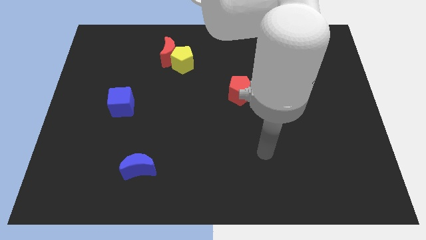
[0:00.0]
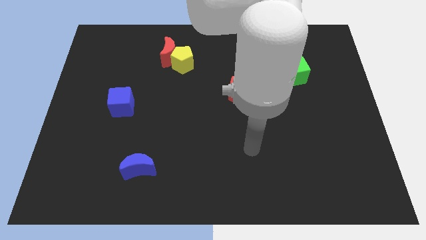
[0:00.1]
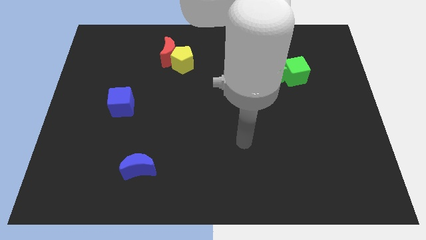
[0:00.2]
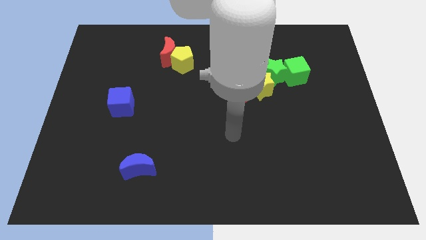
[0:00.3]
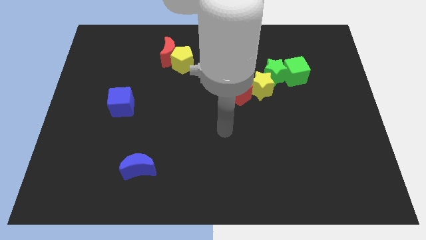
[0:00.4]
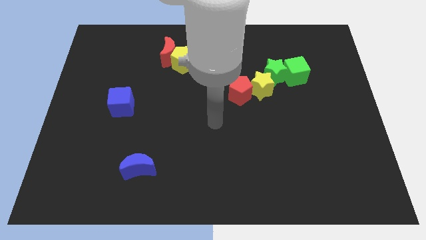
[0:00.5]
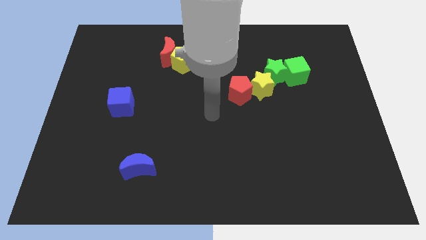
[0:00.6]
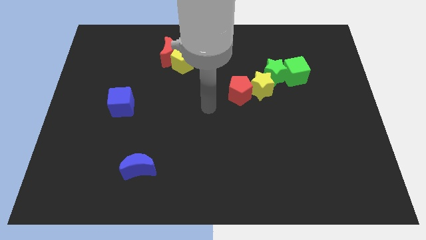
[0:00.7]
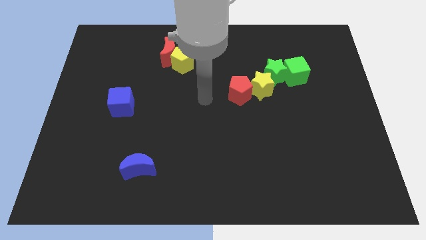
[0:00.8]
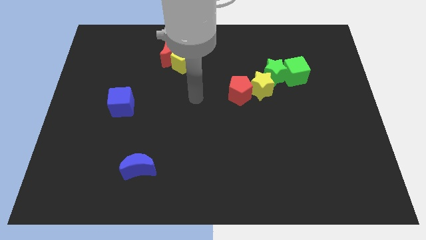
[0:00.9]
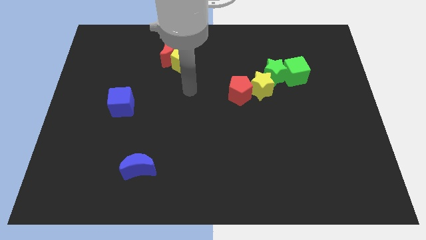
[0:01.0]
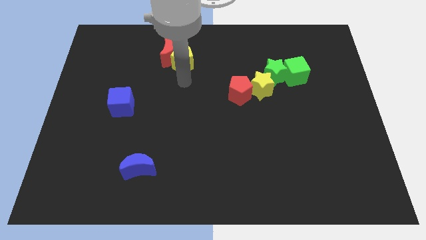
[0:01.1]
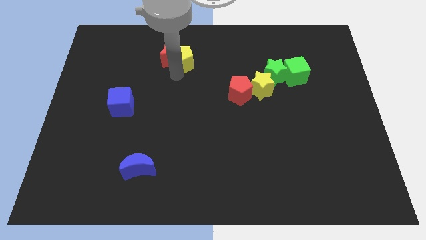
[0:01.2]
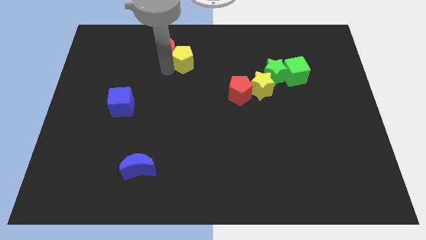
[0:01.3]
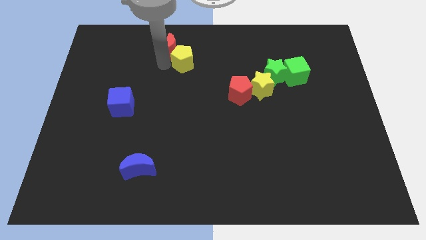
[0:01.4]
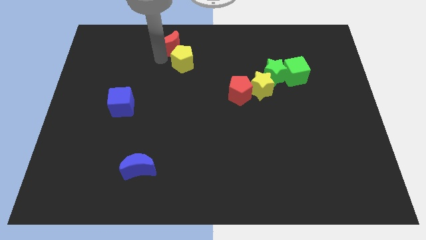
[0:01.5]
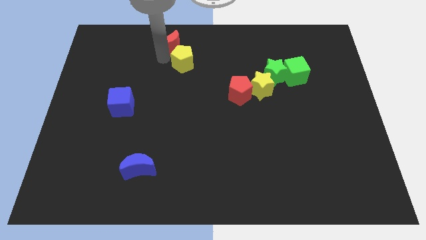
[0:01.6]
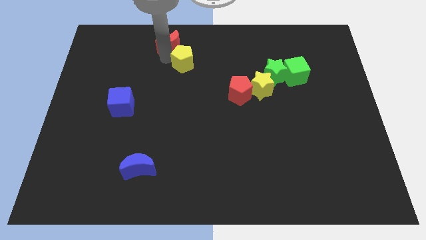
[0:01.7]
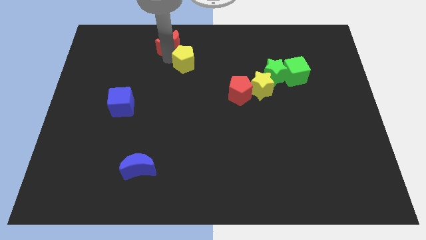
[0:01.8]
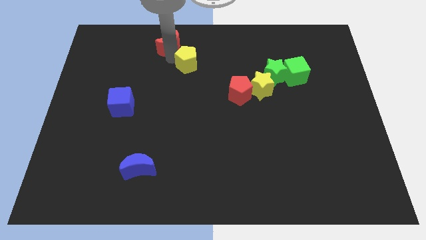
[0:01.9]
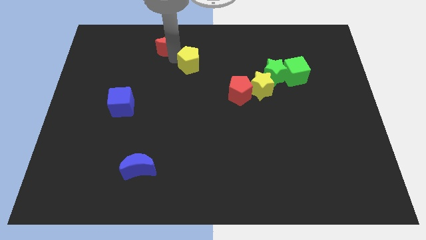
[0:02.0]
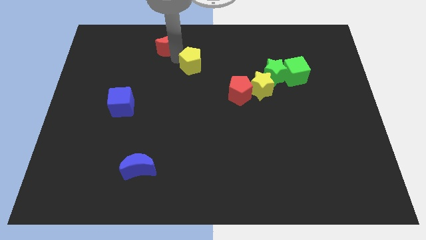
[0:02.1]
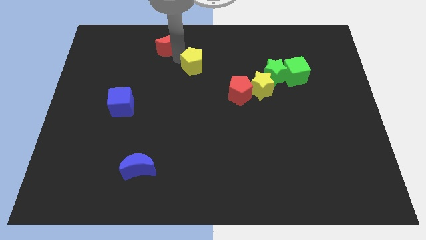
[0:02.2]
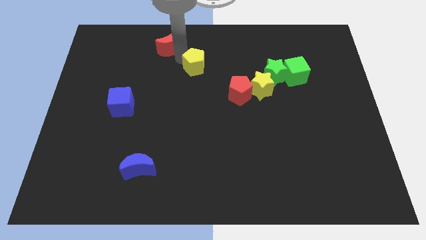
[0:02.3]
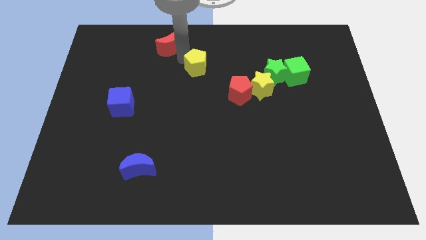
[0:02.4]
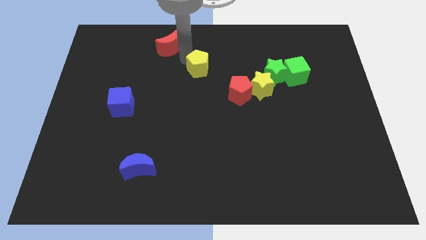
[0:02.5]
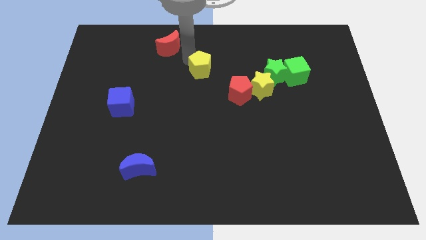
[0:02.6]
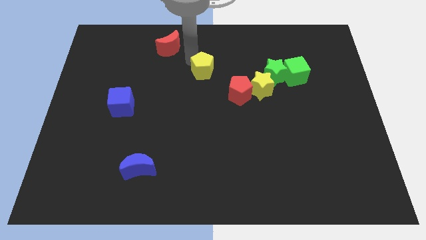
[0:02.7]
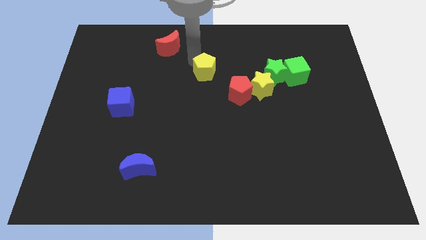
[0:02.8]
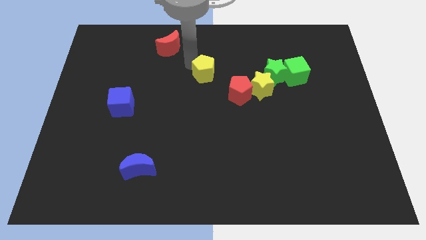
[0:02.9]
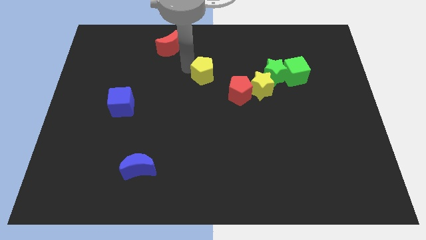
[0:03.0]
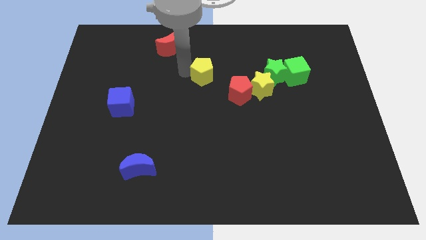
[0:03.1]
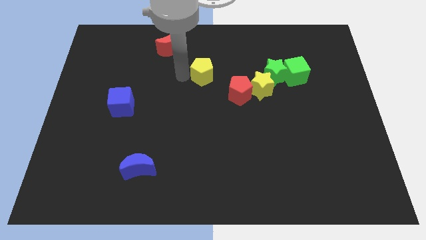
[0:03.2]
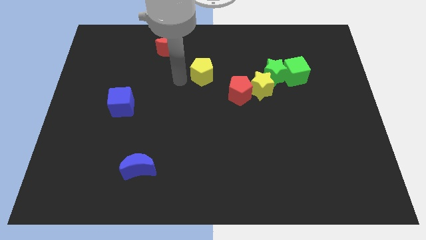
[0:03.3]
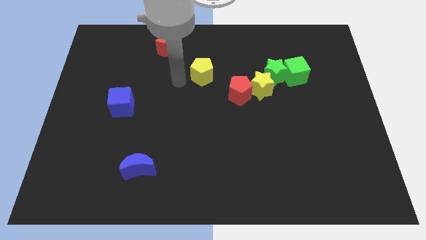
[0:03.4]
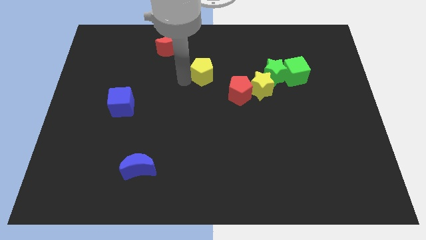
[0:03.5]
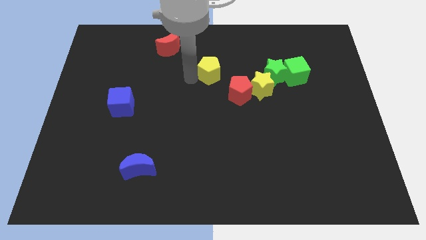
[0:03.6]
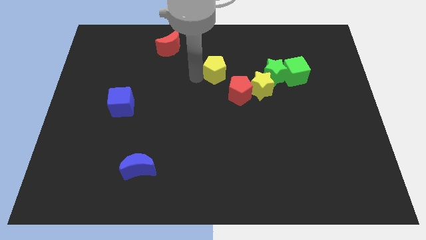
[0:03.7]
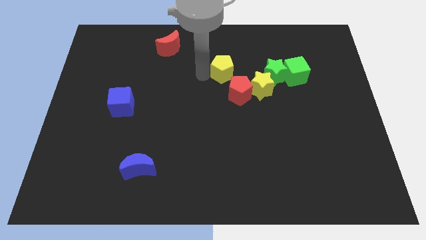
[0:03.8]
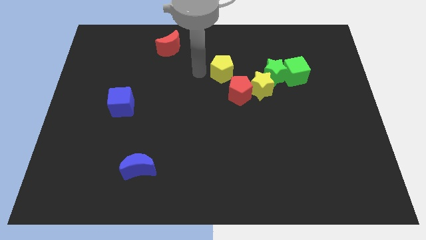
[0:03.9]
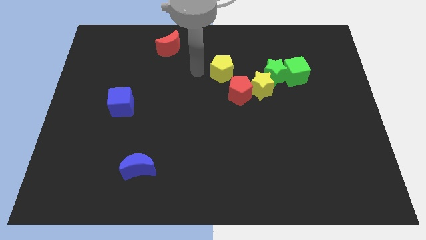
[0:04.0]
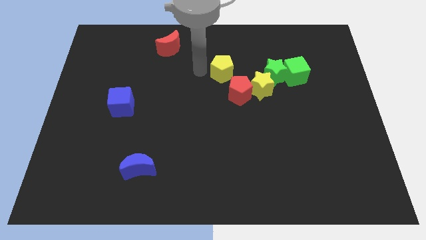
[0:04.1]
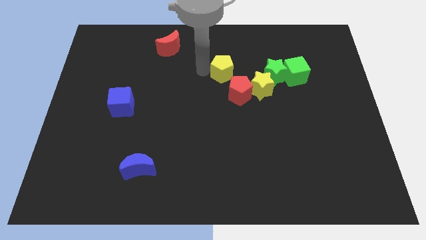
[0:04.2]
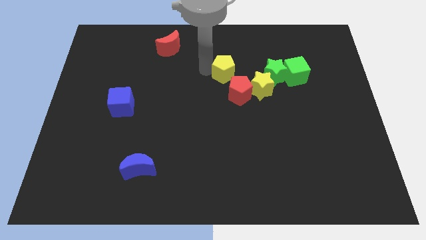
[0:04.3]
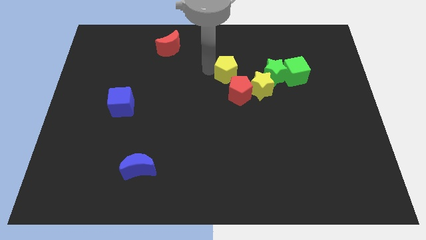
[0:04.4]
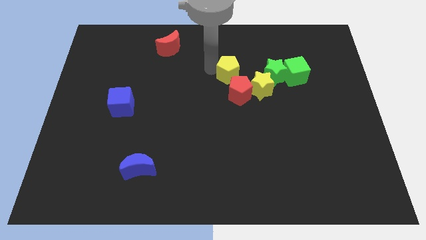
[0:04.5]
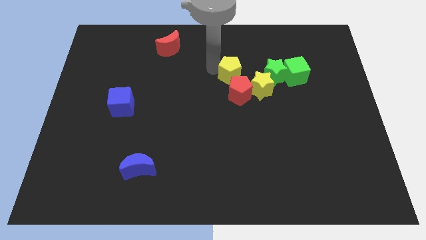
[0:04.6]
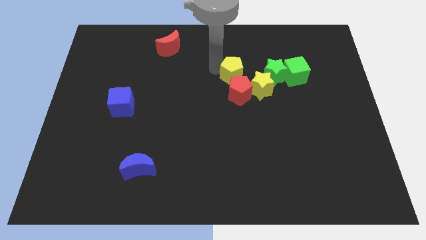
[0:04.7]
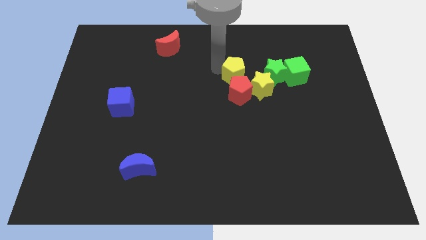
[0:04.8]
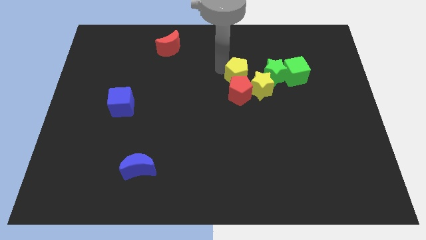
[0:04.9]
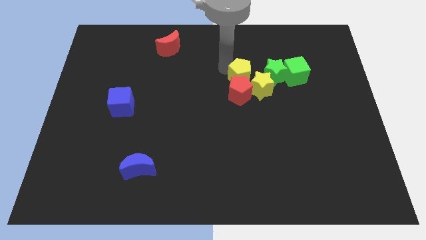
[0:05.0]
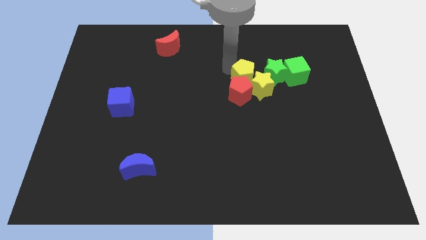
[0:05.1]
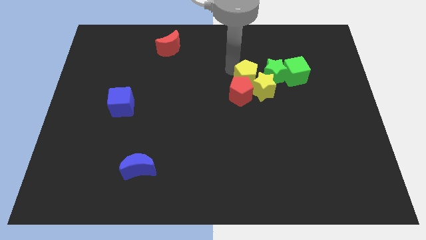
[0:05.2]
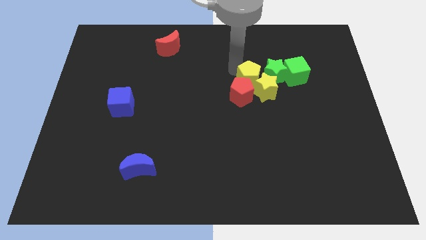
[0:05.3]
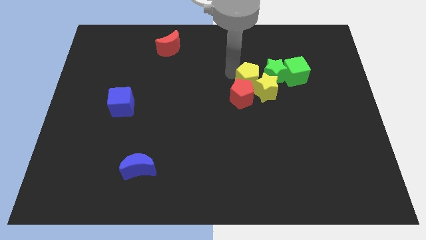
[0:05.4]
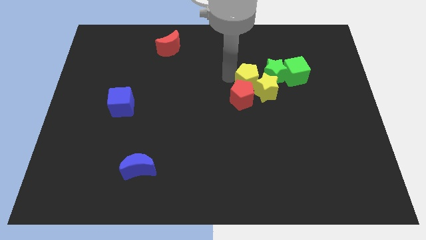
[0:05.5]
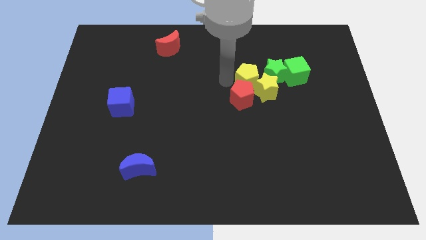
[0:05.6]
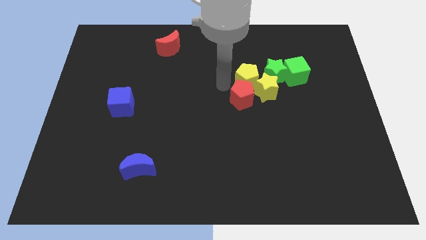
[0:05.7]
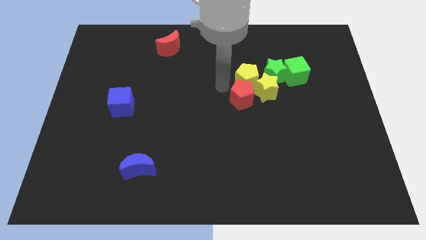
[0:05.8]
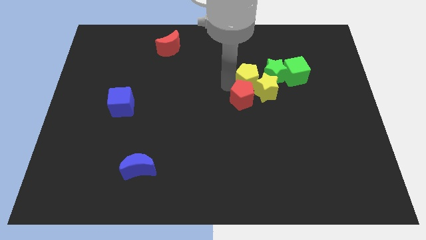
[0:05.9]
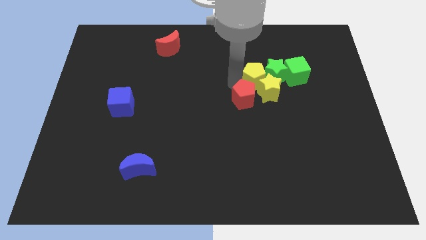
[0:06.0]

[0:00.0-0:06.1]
put the yellow pentagon close to the green star

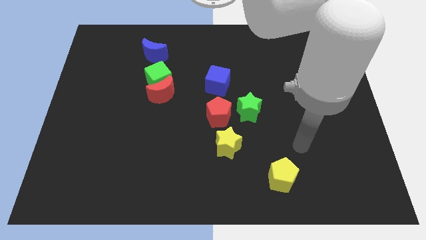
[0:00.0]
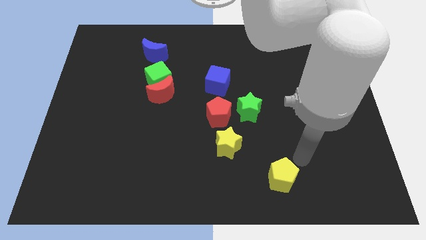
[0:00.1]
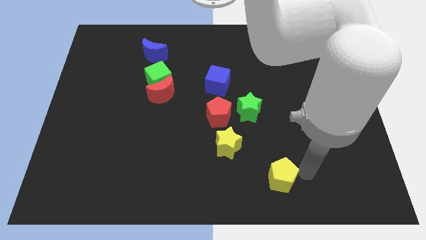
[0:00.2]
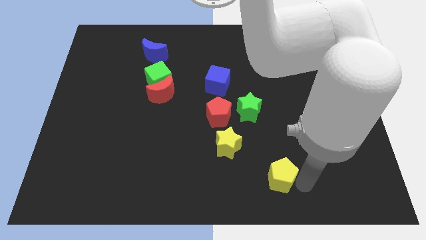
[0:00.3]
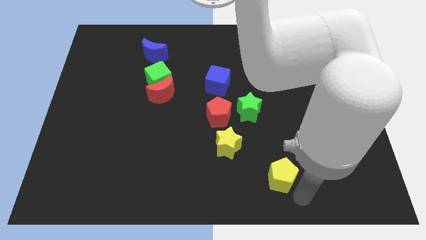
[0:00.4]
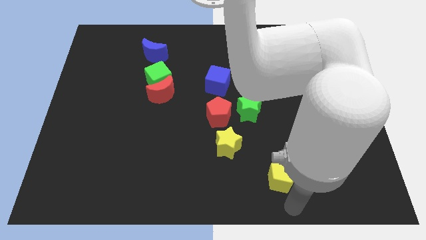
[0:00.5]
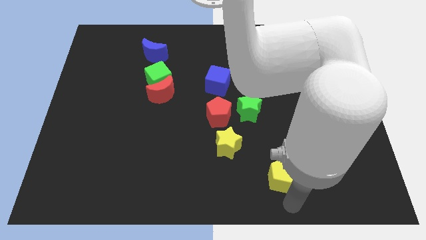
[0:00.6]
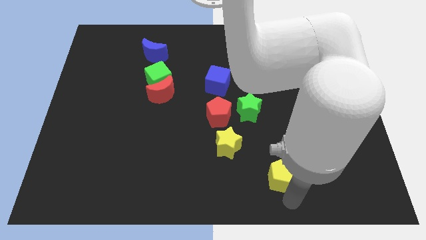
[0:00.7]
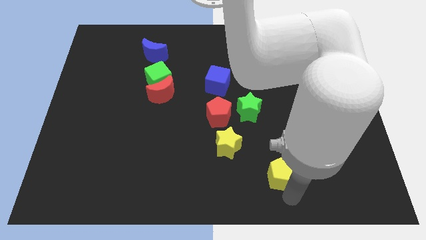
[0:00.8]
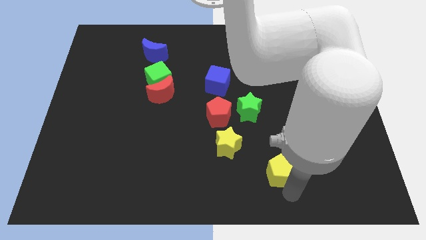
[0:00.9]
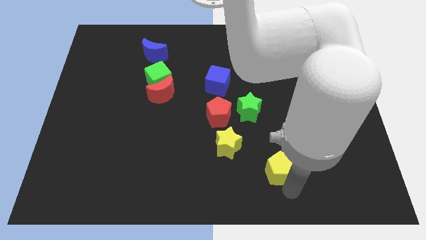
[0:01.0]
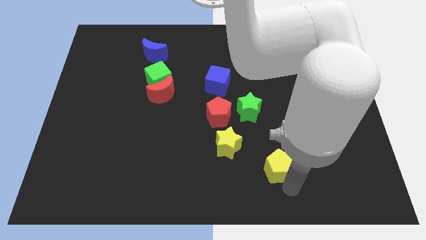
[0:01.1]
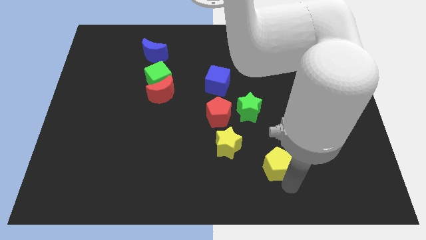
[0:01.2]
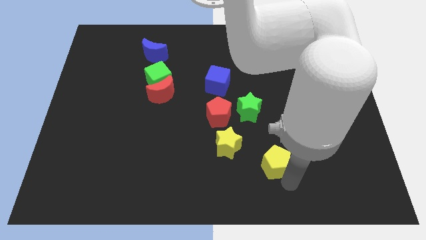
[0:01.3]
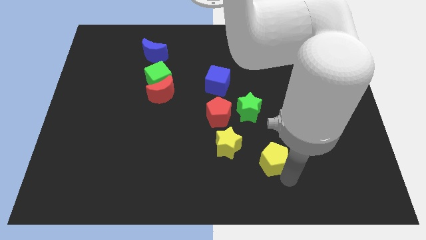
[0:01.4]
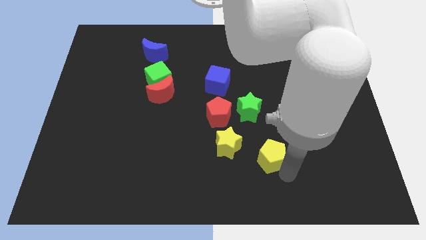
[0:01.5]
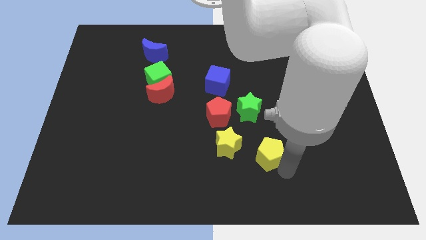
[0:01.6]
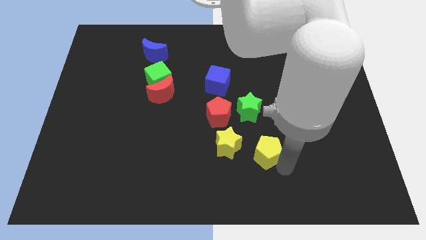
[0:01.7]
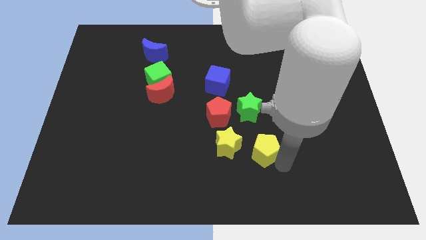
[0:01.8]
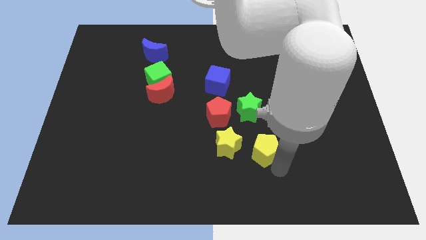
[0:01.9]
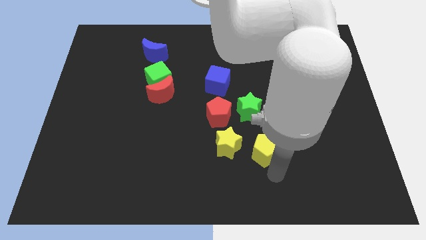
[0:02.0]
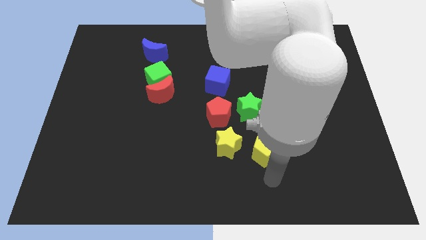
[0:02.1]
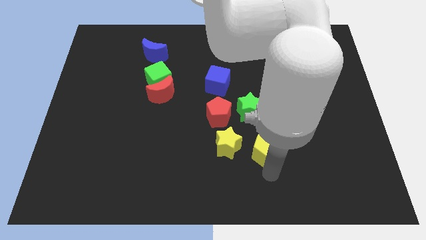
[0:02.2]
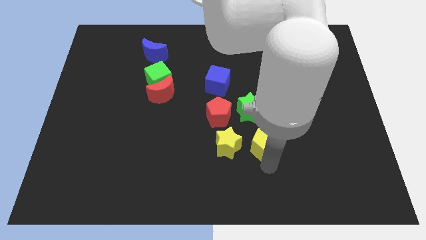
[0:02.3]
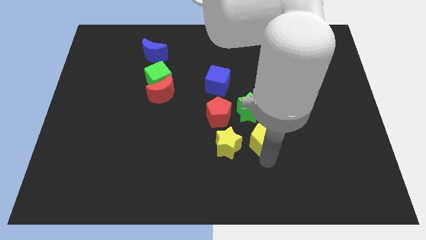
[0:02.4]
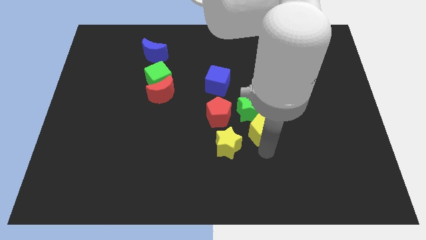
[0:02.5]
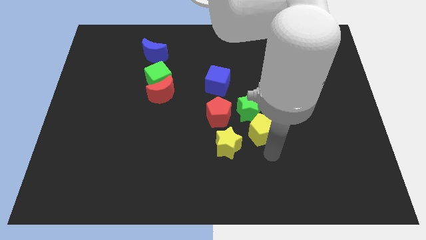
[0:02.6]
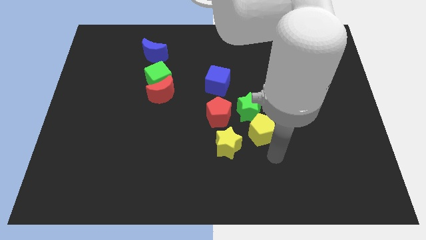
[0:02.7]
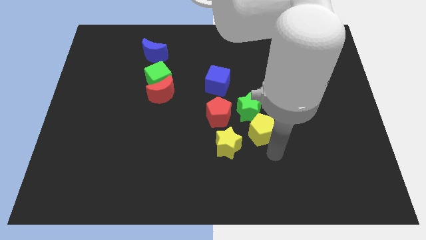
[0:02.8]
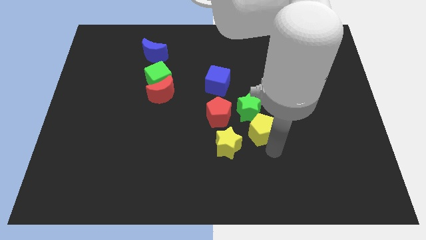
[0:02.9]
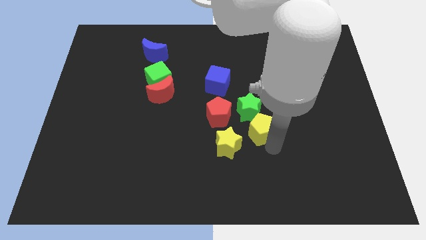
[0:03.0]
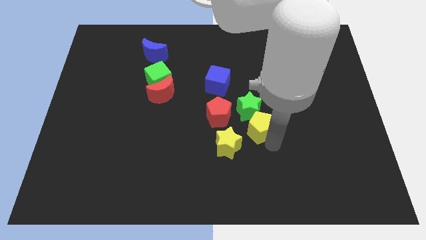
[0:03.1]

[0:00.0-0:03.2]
slide the yellow pentagon next to the green star
